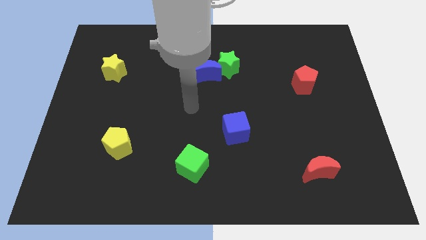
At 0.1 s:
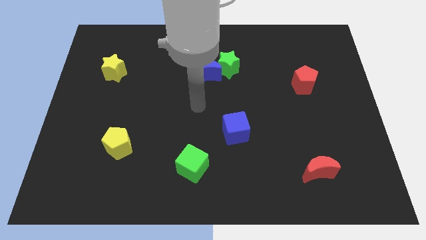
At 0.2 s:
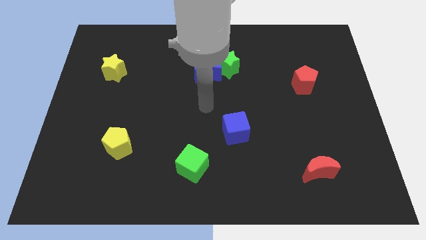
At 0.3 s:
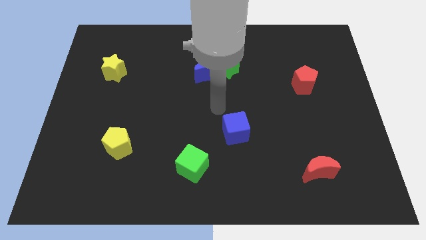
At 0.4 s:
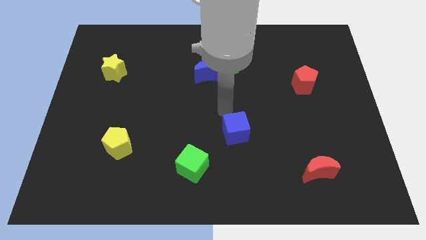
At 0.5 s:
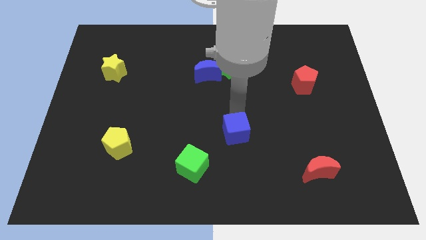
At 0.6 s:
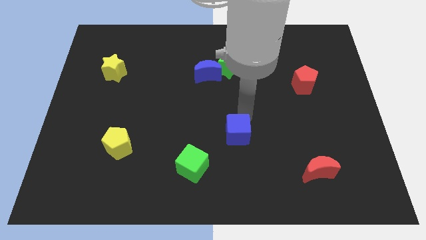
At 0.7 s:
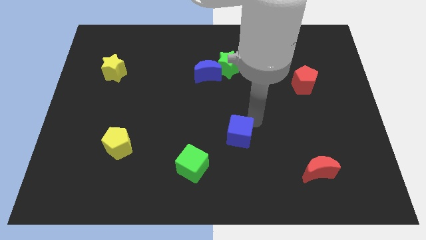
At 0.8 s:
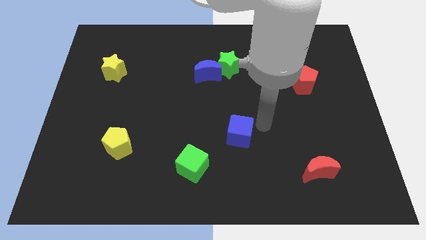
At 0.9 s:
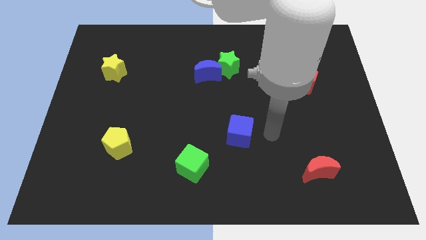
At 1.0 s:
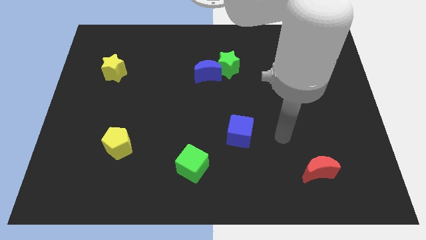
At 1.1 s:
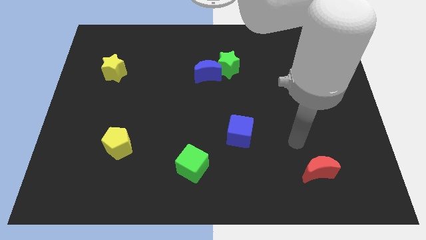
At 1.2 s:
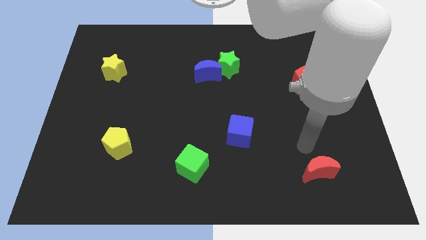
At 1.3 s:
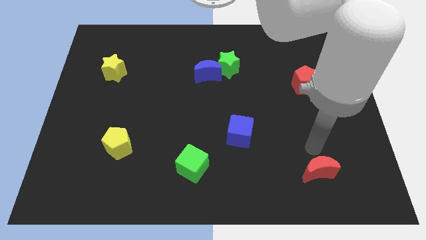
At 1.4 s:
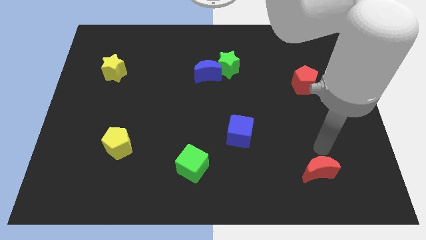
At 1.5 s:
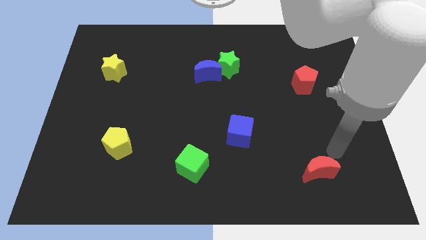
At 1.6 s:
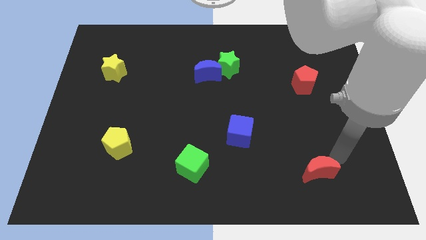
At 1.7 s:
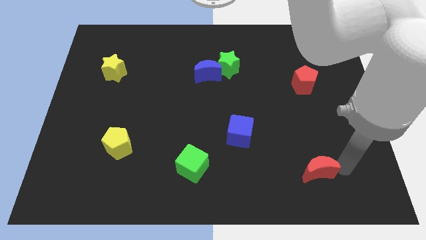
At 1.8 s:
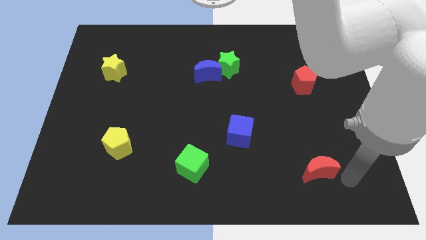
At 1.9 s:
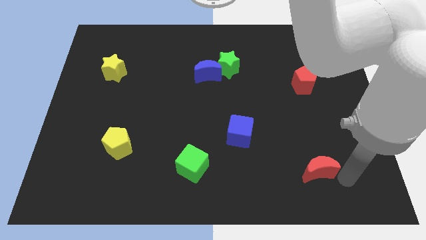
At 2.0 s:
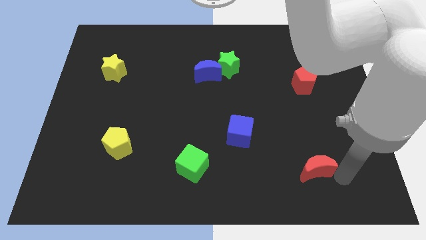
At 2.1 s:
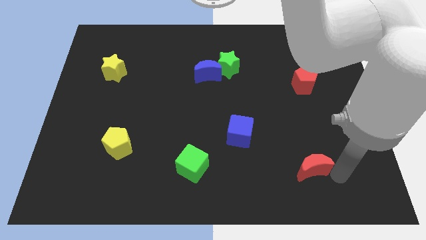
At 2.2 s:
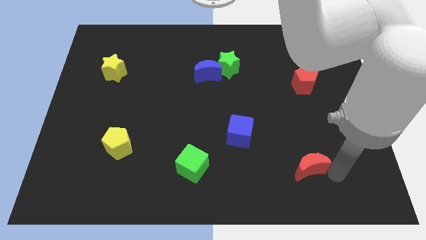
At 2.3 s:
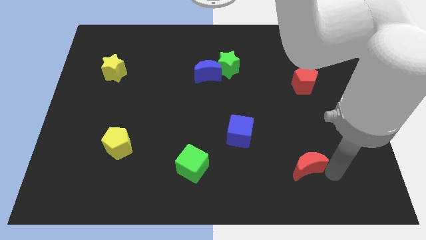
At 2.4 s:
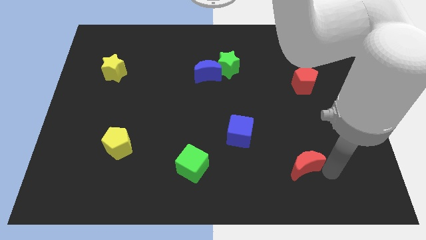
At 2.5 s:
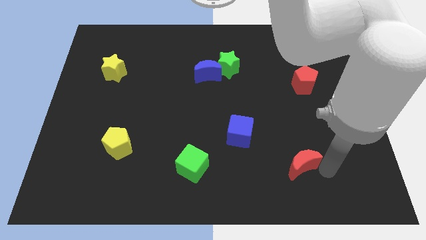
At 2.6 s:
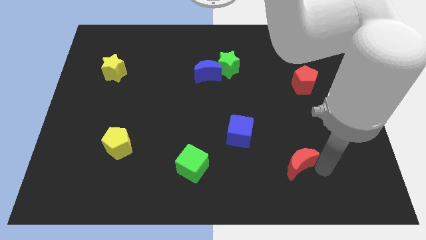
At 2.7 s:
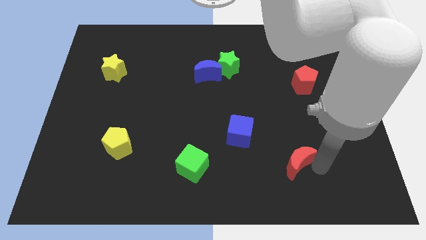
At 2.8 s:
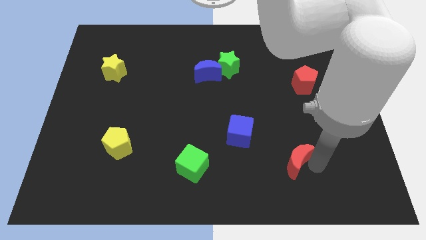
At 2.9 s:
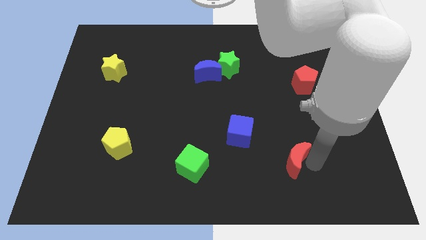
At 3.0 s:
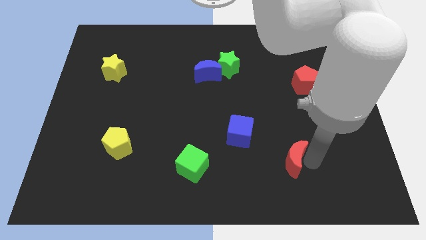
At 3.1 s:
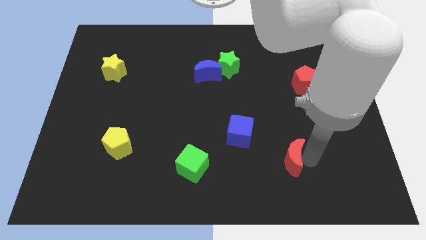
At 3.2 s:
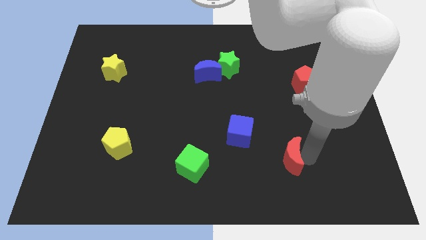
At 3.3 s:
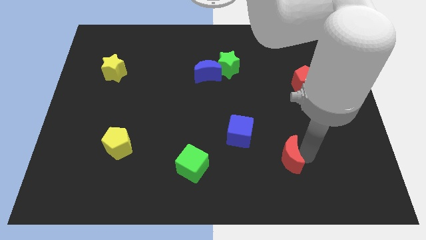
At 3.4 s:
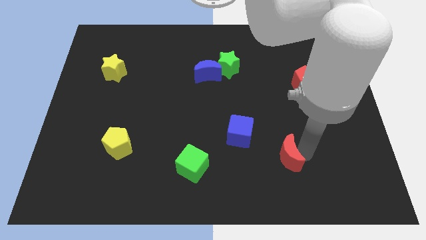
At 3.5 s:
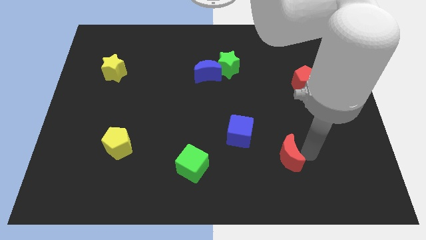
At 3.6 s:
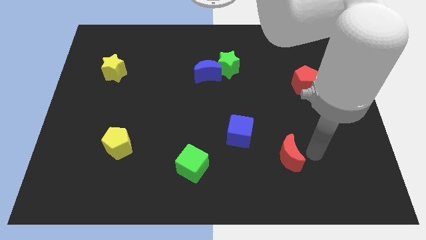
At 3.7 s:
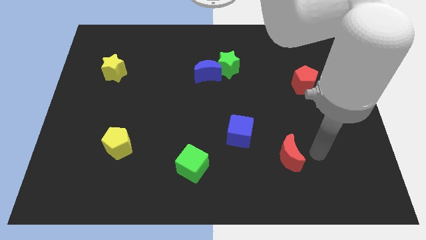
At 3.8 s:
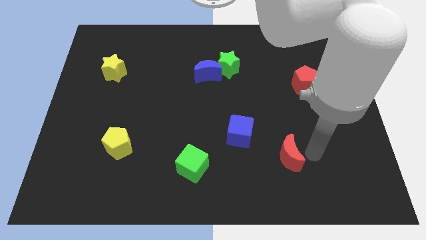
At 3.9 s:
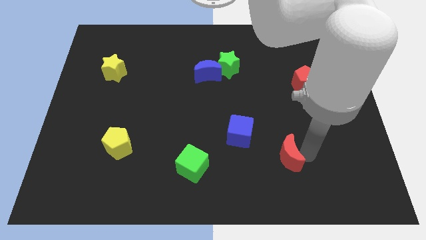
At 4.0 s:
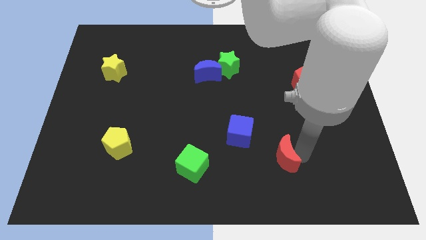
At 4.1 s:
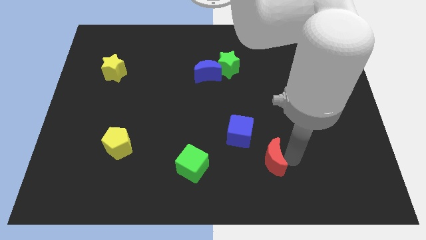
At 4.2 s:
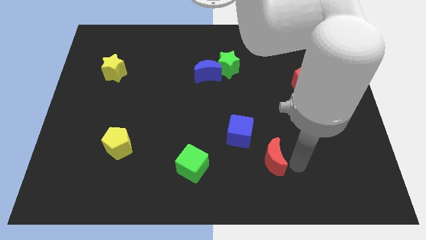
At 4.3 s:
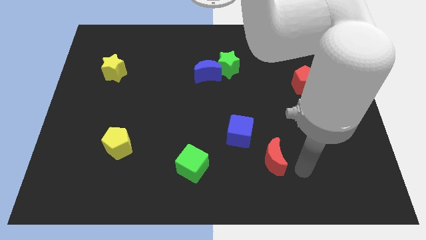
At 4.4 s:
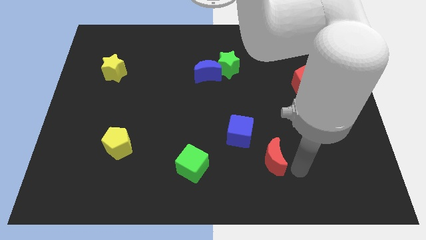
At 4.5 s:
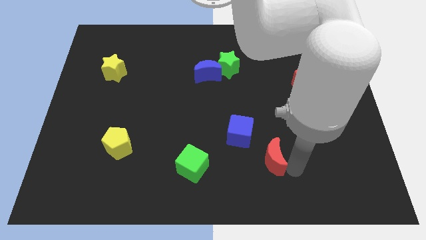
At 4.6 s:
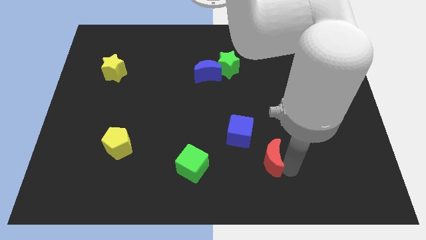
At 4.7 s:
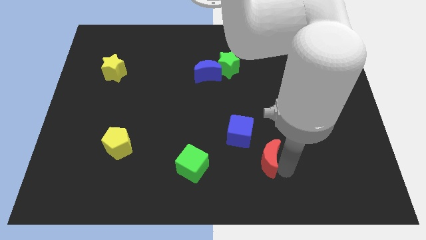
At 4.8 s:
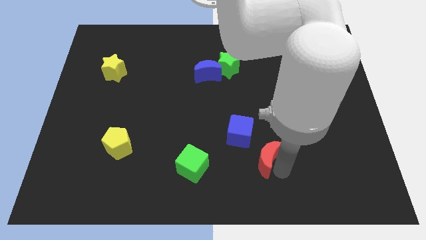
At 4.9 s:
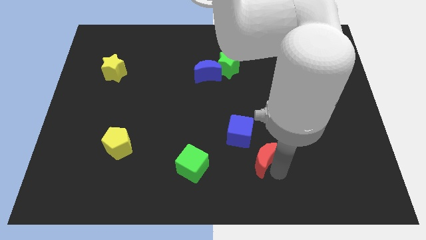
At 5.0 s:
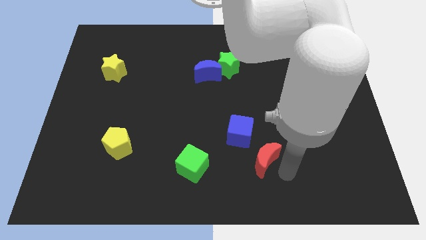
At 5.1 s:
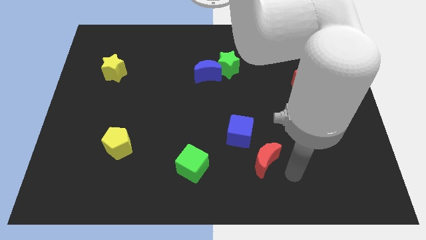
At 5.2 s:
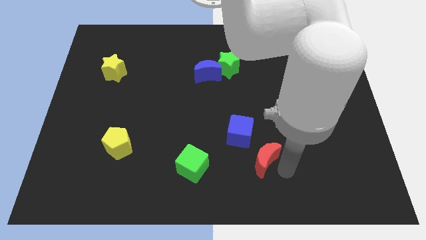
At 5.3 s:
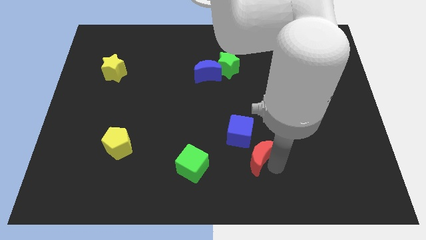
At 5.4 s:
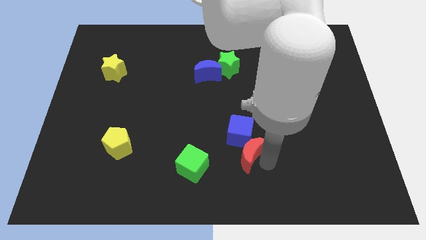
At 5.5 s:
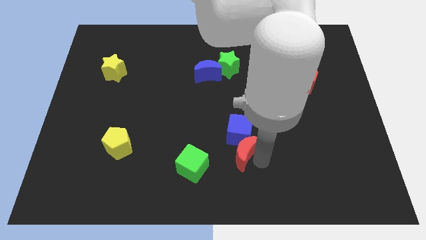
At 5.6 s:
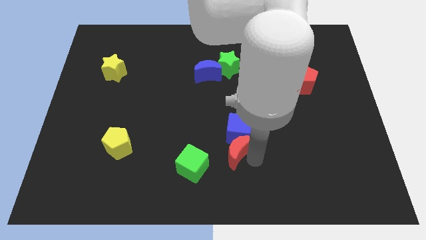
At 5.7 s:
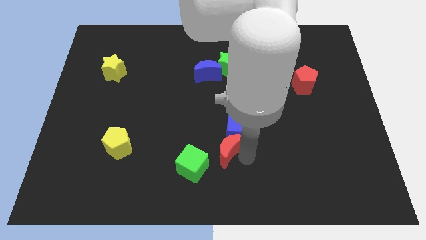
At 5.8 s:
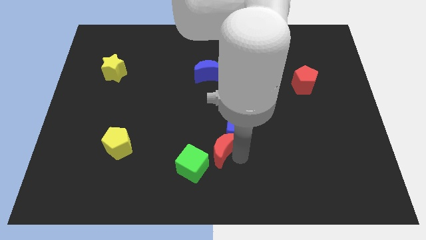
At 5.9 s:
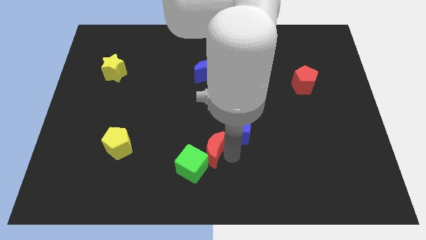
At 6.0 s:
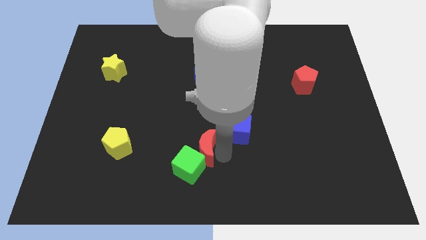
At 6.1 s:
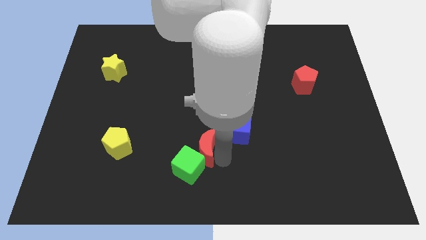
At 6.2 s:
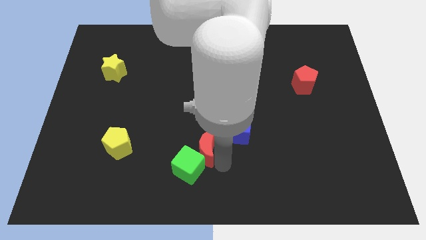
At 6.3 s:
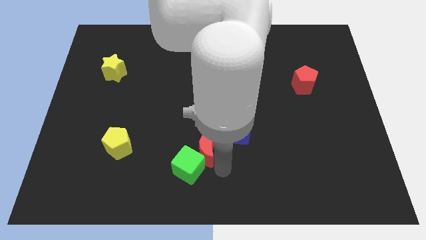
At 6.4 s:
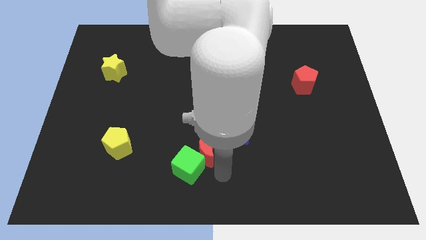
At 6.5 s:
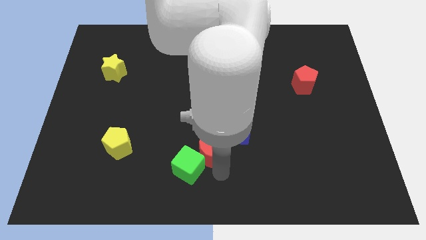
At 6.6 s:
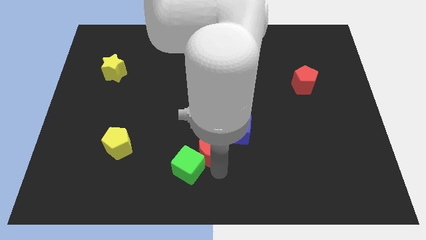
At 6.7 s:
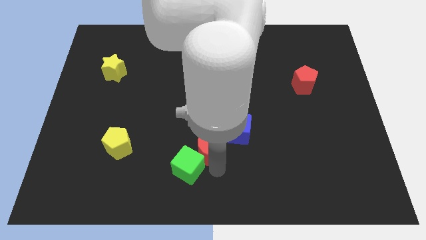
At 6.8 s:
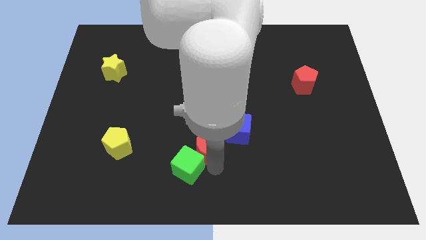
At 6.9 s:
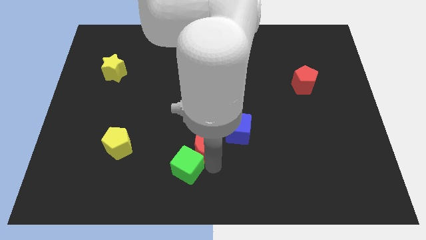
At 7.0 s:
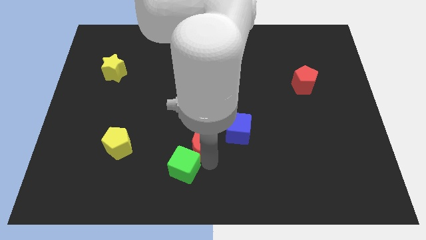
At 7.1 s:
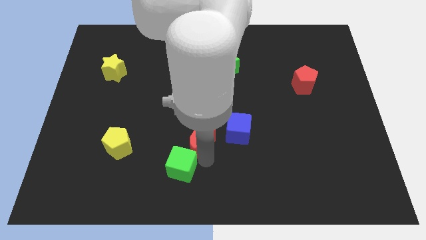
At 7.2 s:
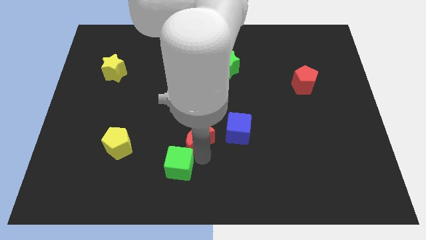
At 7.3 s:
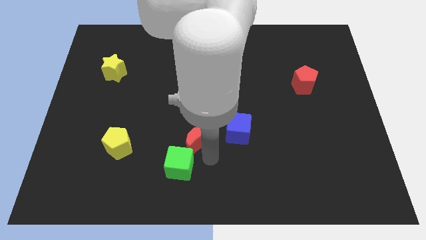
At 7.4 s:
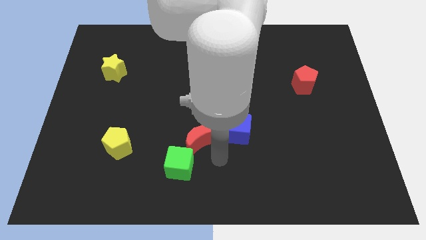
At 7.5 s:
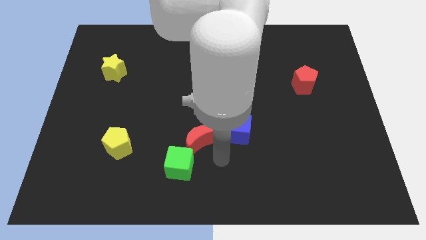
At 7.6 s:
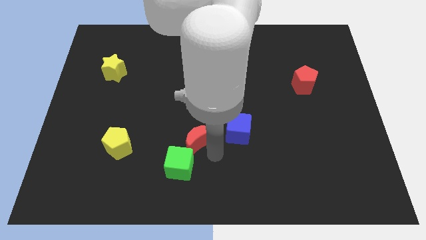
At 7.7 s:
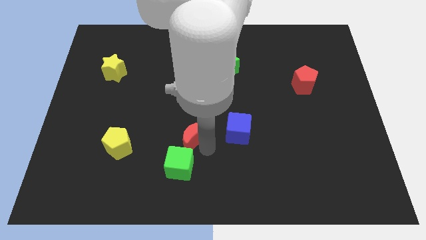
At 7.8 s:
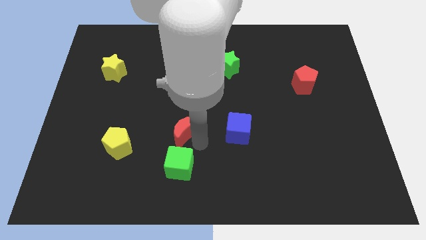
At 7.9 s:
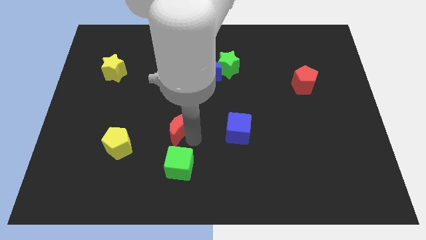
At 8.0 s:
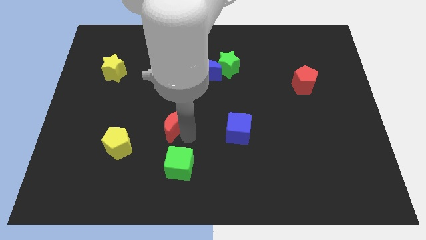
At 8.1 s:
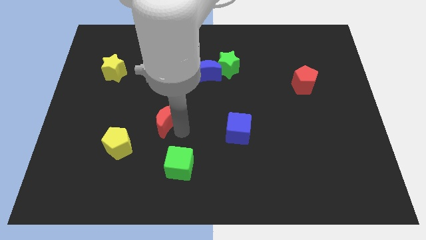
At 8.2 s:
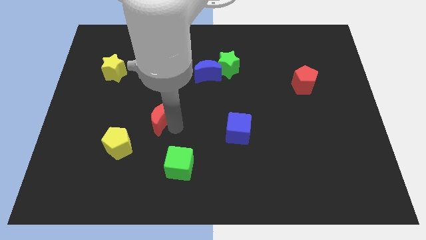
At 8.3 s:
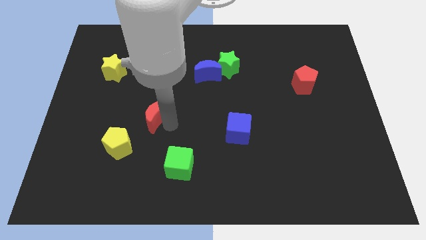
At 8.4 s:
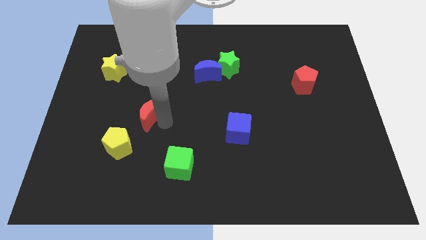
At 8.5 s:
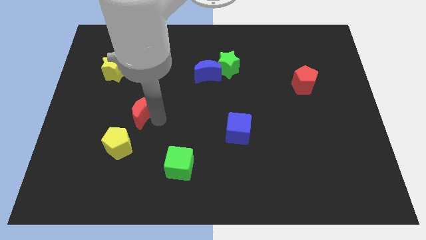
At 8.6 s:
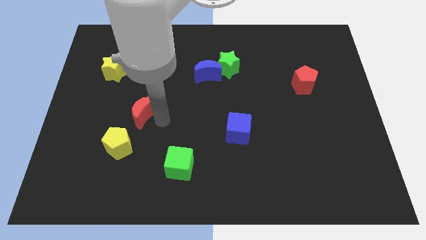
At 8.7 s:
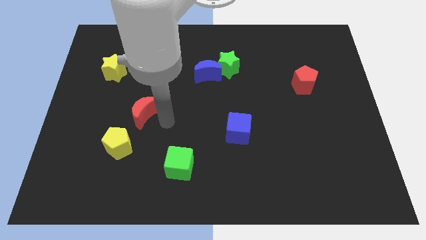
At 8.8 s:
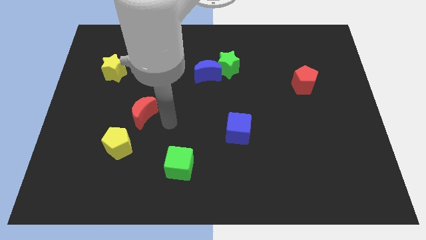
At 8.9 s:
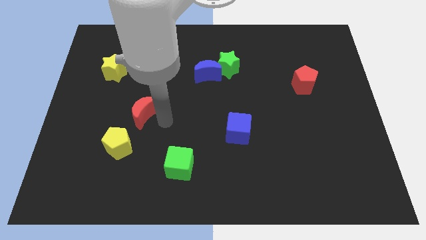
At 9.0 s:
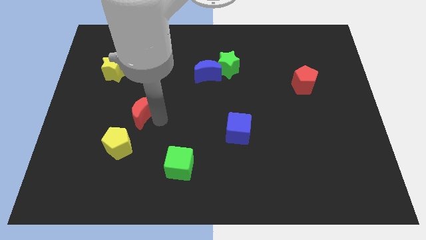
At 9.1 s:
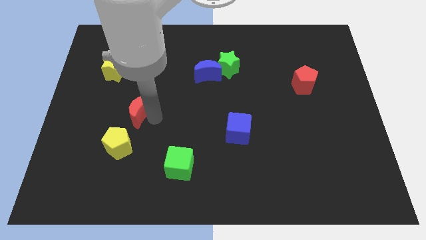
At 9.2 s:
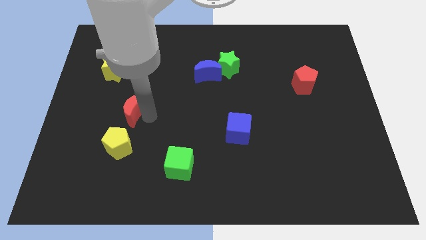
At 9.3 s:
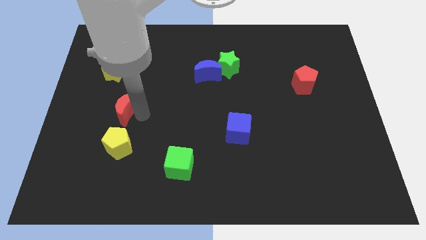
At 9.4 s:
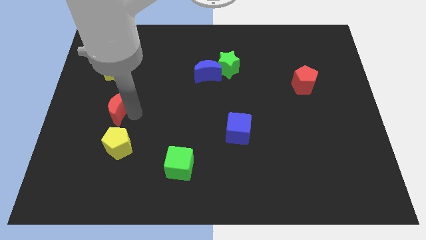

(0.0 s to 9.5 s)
push the red moon to the bottom side of the yellow star
